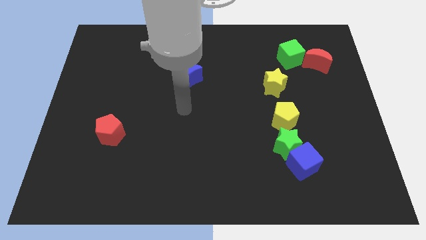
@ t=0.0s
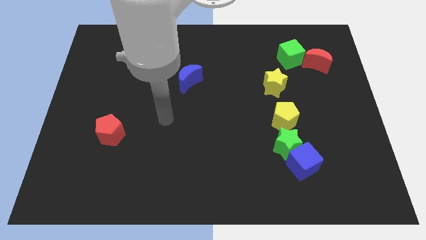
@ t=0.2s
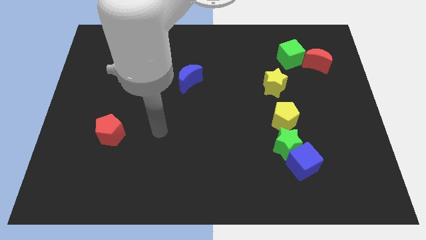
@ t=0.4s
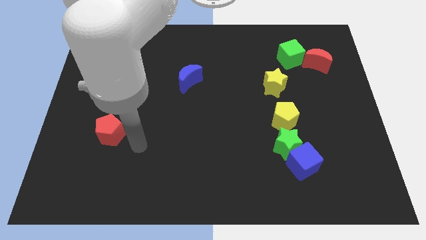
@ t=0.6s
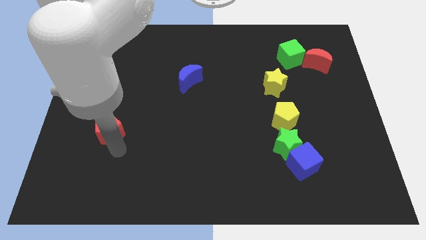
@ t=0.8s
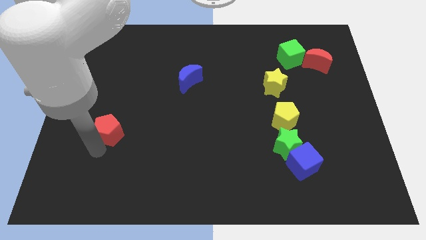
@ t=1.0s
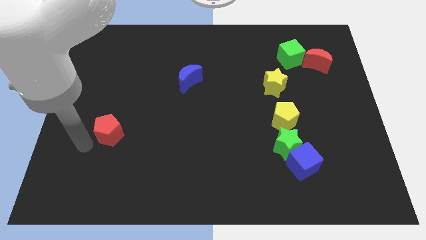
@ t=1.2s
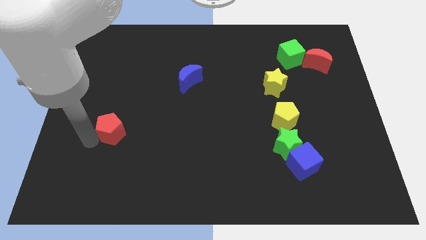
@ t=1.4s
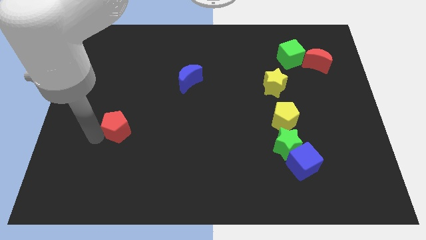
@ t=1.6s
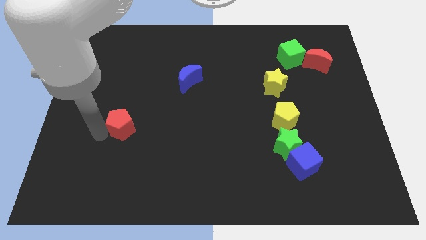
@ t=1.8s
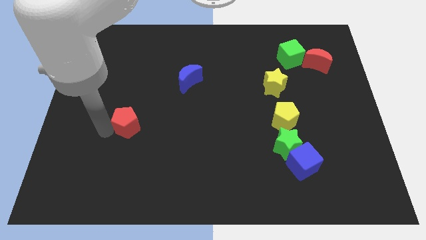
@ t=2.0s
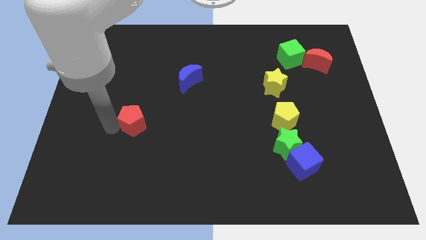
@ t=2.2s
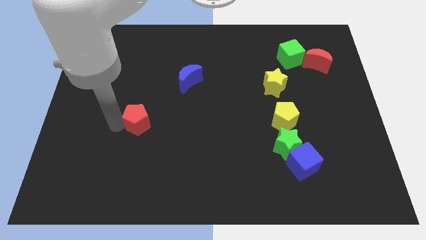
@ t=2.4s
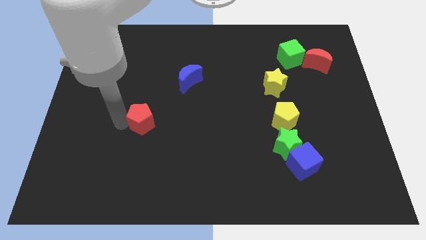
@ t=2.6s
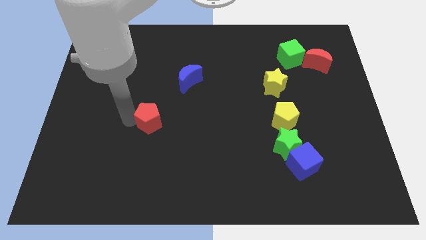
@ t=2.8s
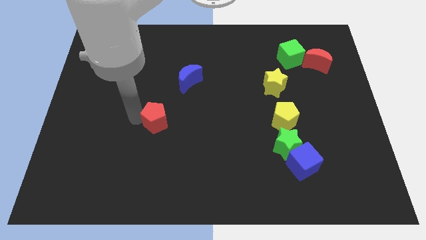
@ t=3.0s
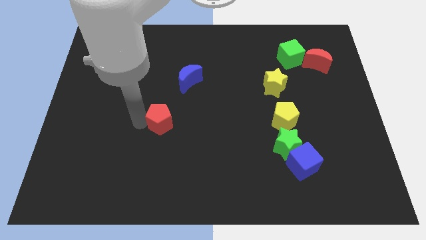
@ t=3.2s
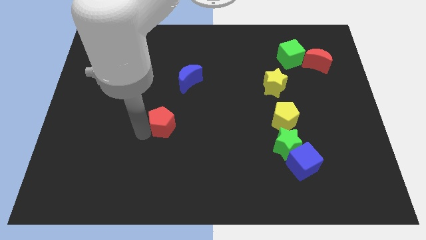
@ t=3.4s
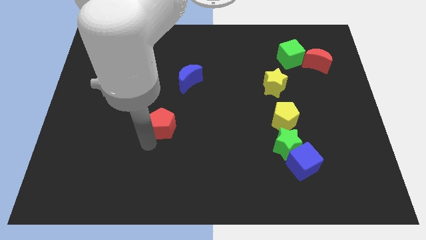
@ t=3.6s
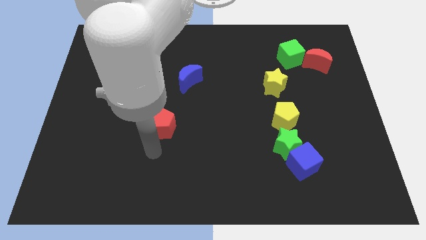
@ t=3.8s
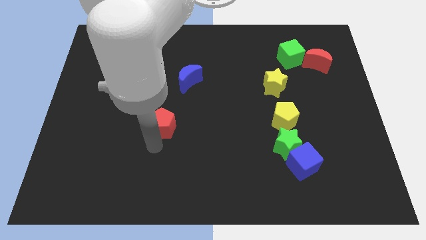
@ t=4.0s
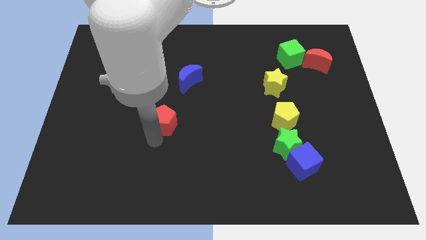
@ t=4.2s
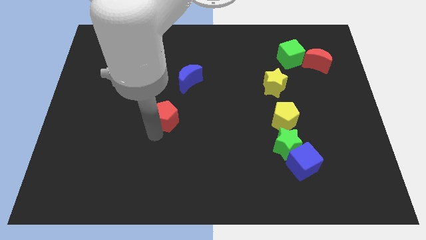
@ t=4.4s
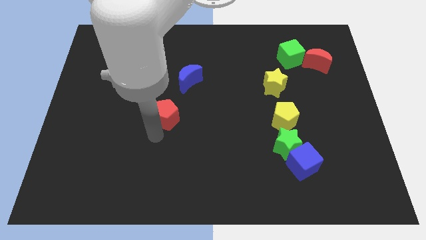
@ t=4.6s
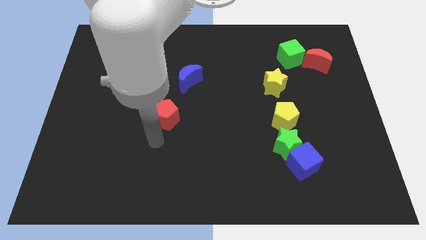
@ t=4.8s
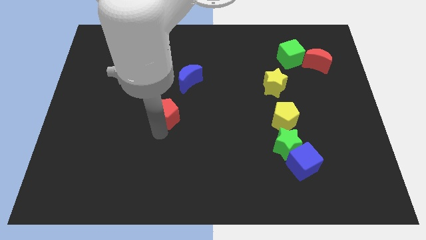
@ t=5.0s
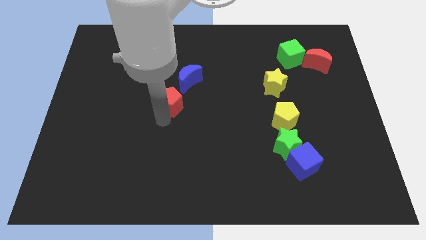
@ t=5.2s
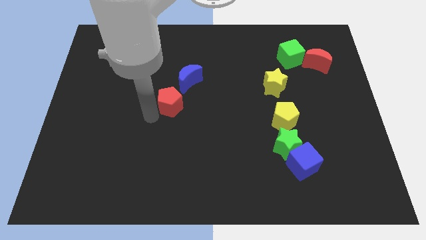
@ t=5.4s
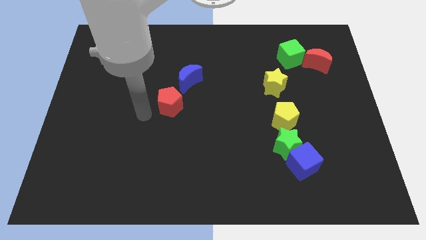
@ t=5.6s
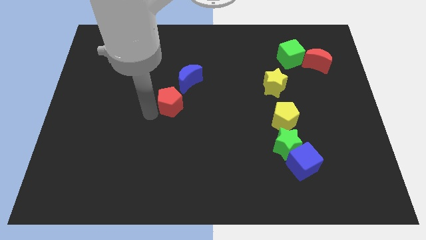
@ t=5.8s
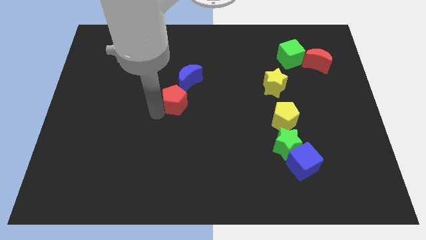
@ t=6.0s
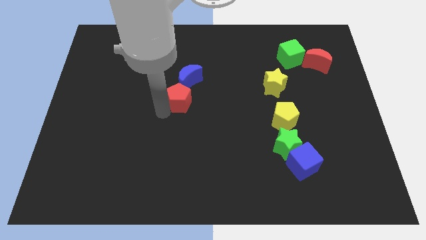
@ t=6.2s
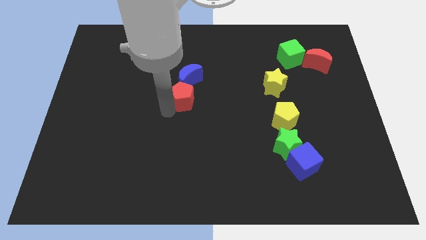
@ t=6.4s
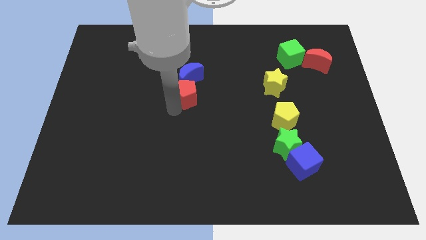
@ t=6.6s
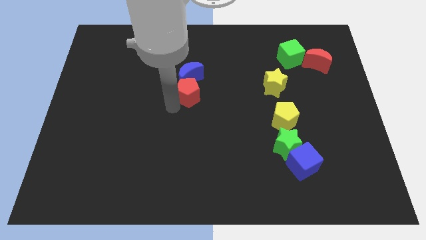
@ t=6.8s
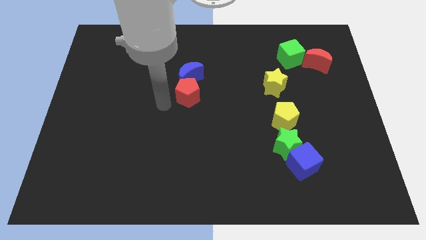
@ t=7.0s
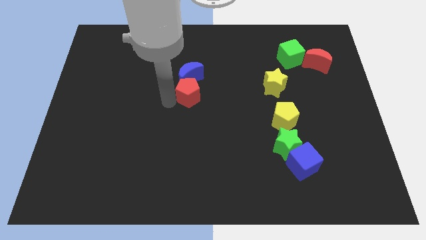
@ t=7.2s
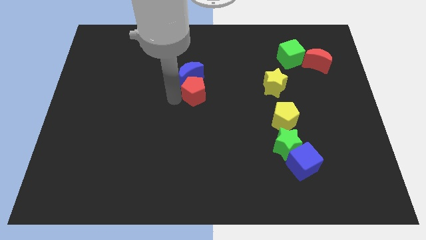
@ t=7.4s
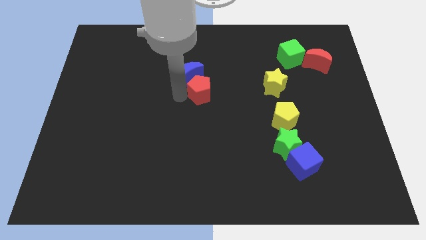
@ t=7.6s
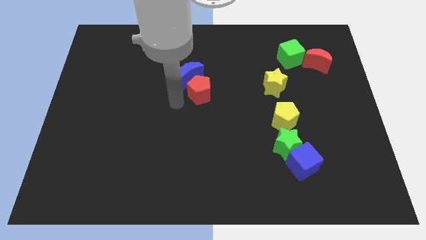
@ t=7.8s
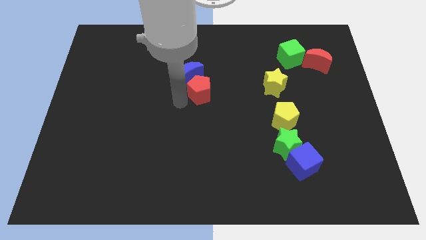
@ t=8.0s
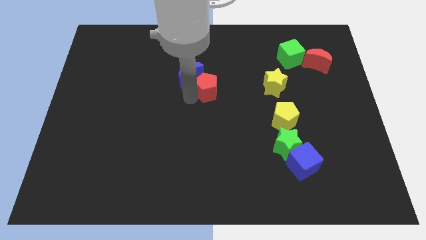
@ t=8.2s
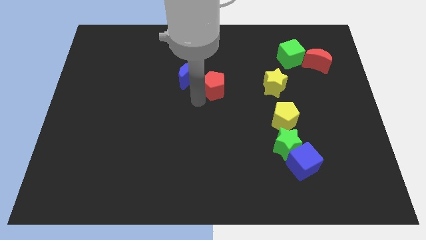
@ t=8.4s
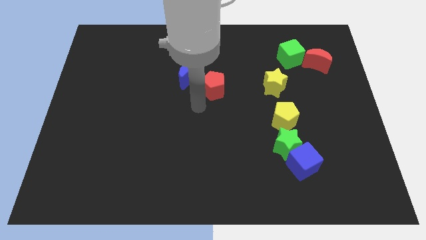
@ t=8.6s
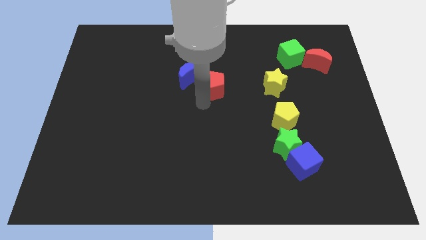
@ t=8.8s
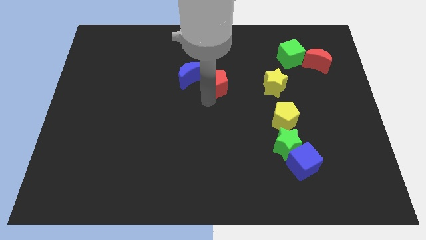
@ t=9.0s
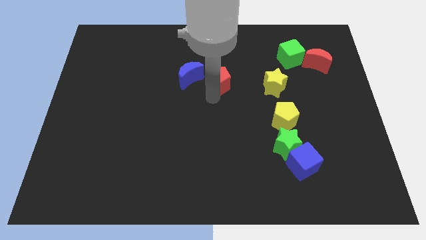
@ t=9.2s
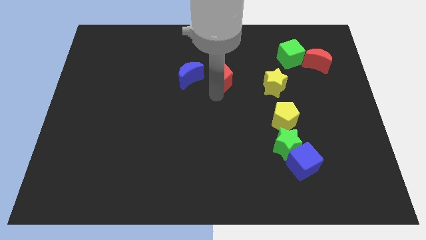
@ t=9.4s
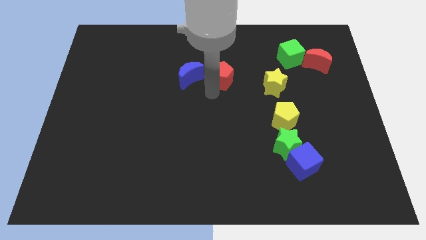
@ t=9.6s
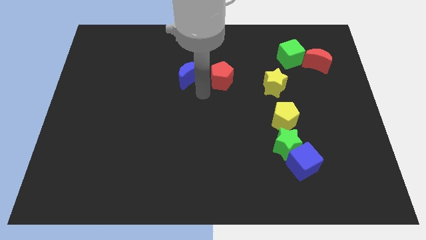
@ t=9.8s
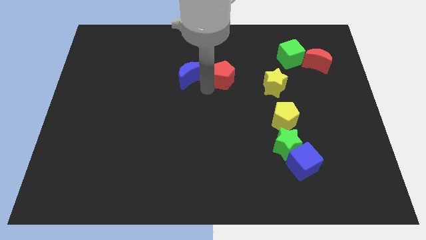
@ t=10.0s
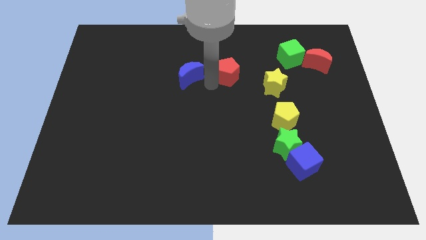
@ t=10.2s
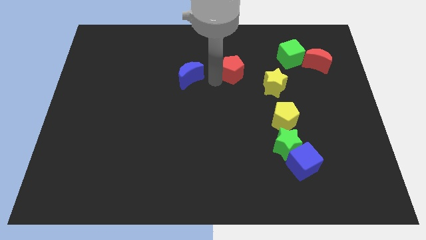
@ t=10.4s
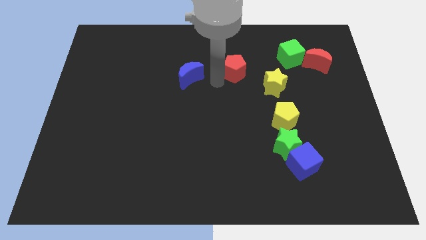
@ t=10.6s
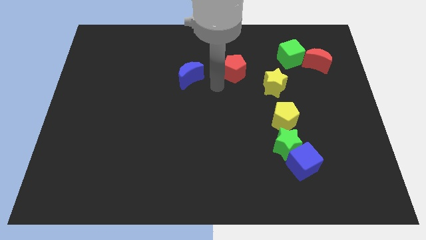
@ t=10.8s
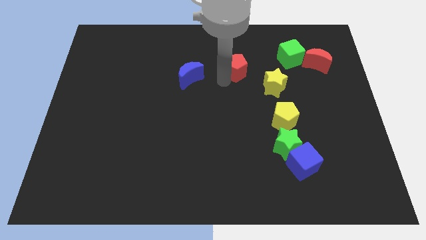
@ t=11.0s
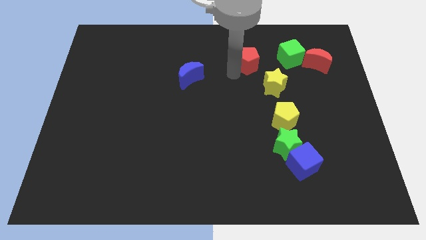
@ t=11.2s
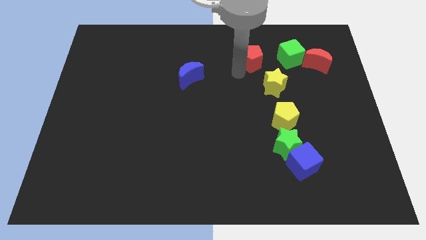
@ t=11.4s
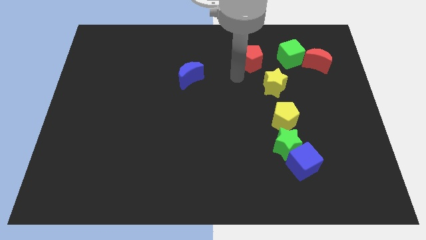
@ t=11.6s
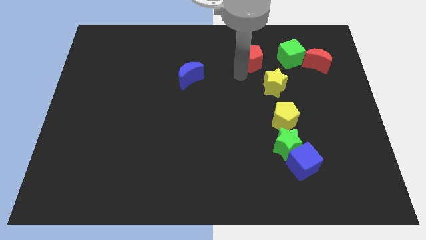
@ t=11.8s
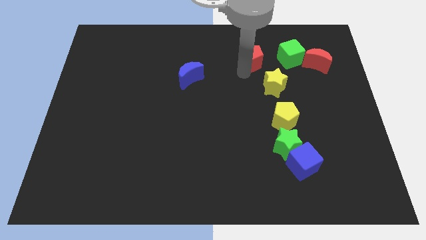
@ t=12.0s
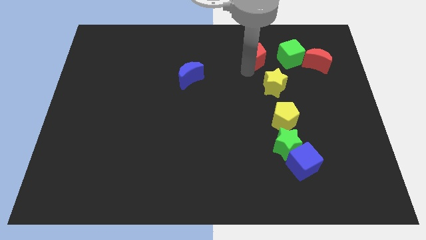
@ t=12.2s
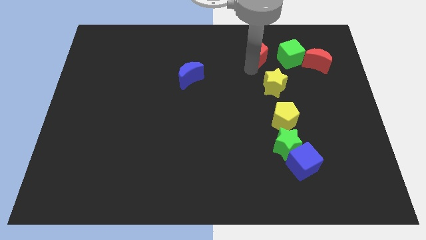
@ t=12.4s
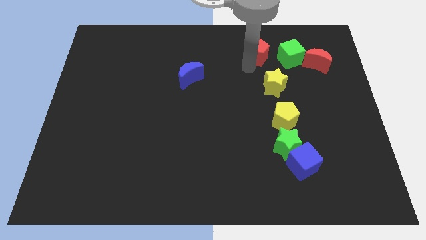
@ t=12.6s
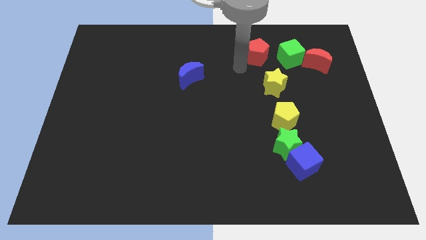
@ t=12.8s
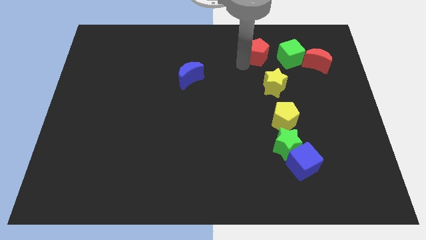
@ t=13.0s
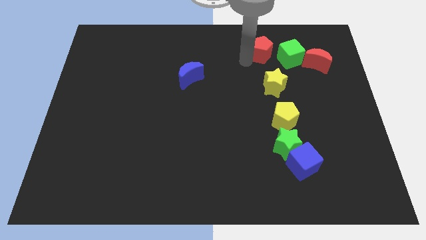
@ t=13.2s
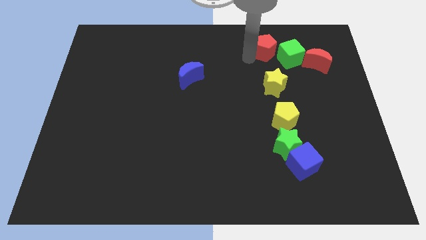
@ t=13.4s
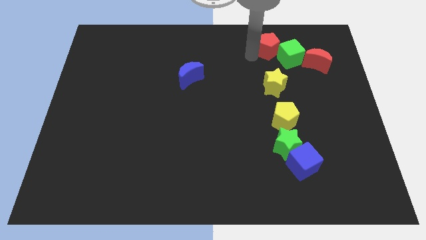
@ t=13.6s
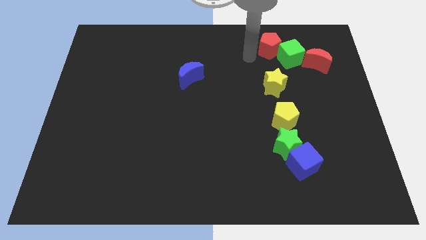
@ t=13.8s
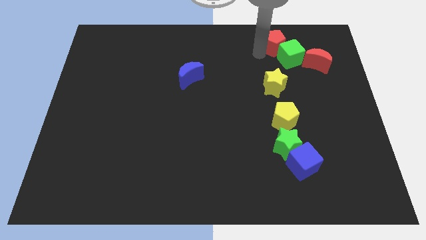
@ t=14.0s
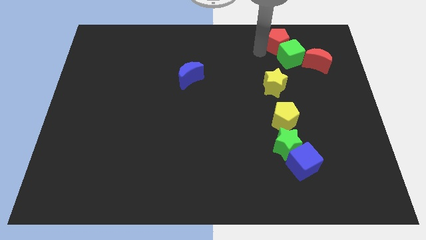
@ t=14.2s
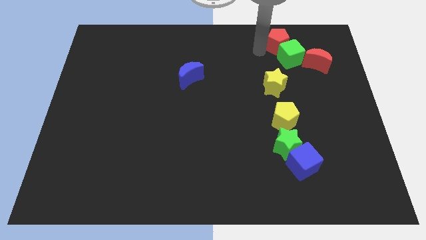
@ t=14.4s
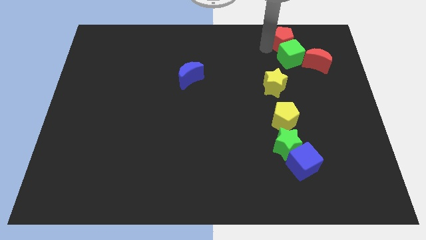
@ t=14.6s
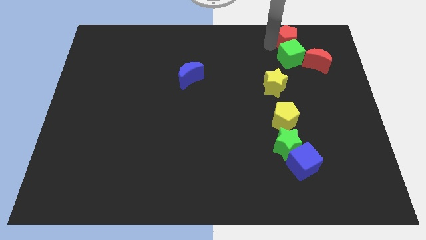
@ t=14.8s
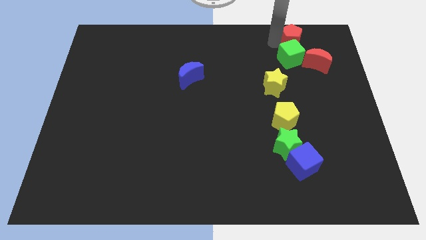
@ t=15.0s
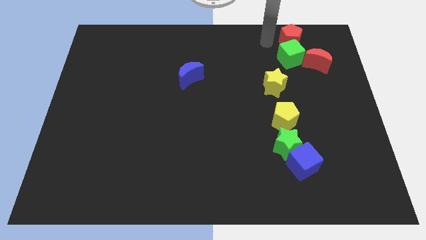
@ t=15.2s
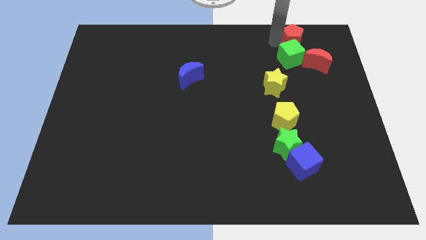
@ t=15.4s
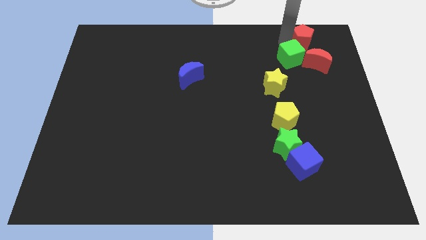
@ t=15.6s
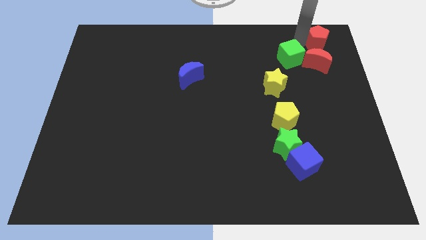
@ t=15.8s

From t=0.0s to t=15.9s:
slide the red pentagon to the upper right corner
